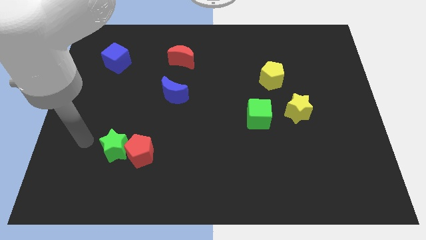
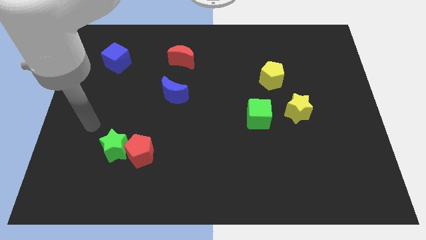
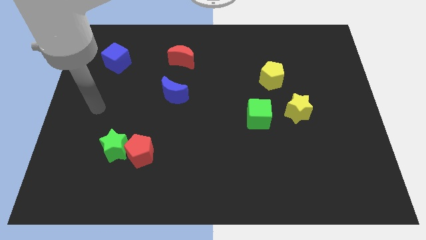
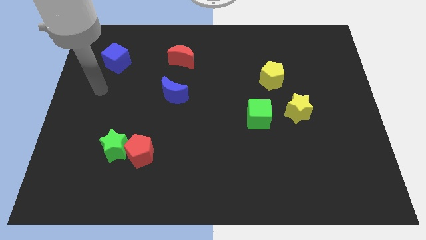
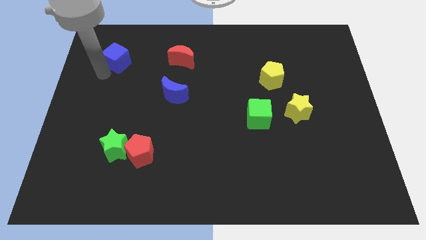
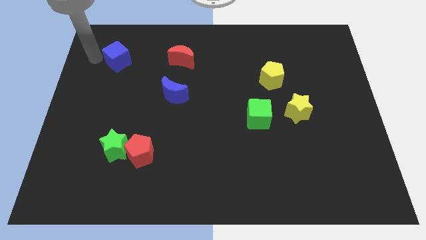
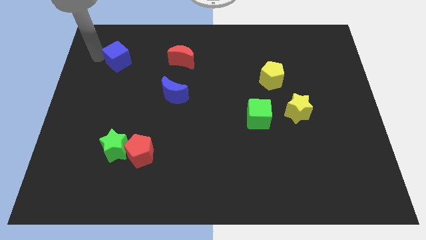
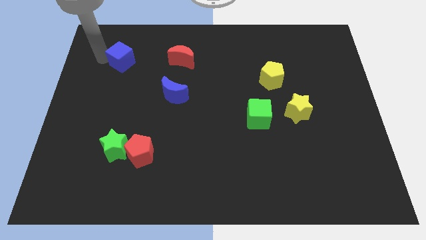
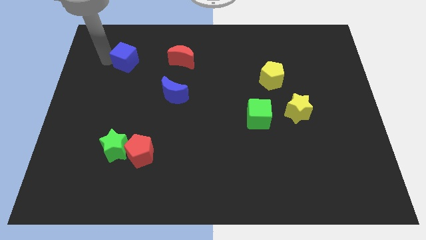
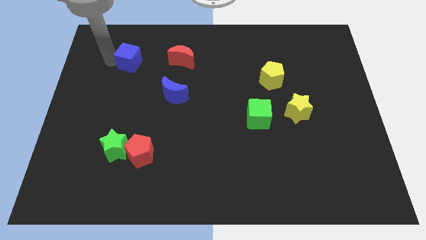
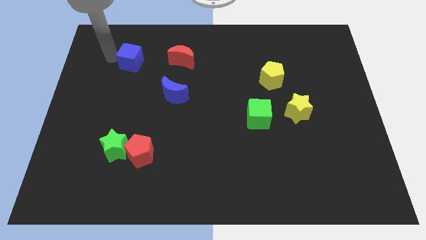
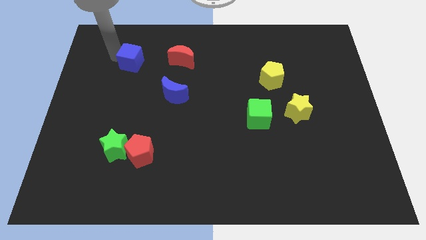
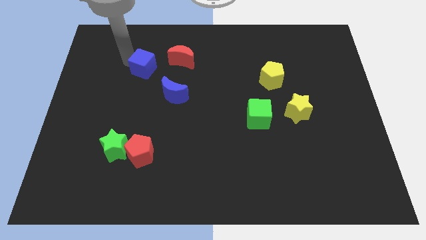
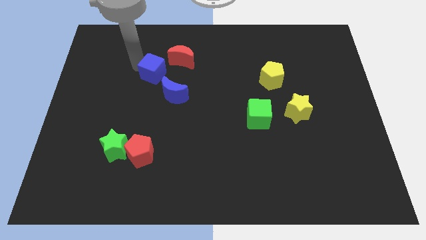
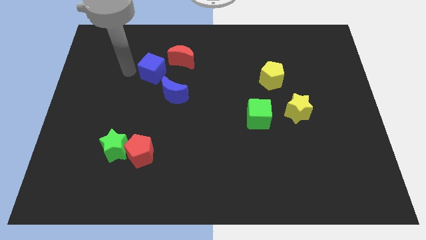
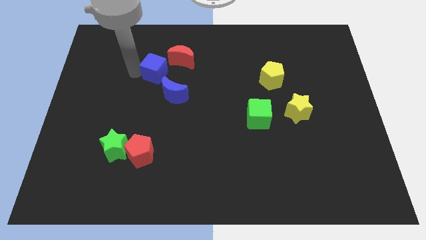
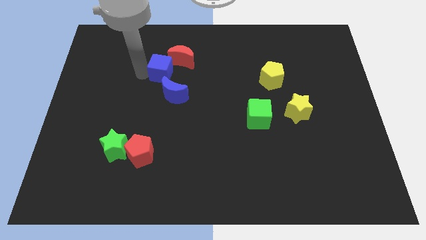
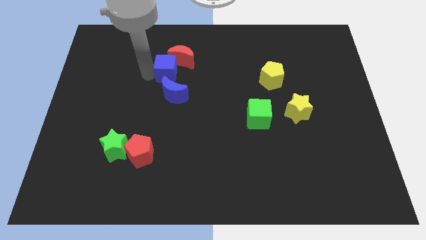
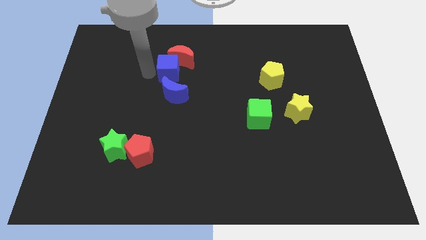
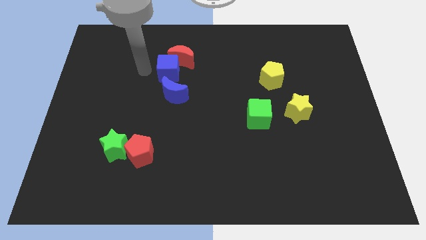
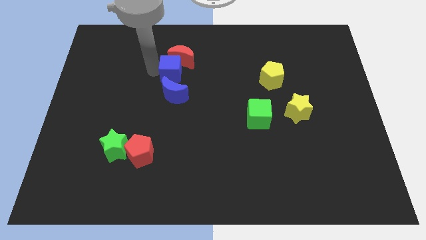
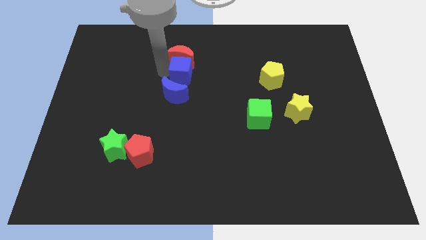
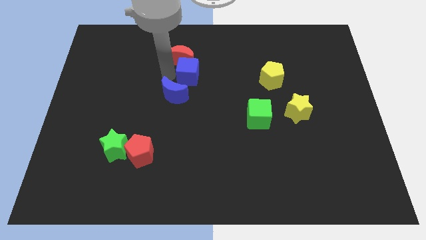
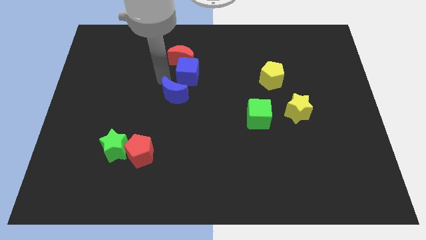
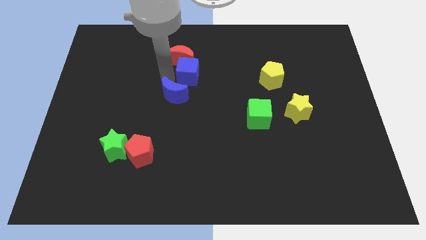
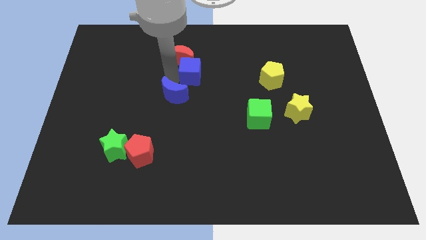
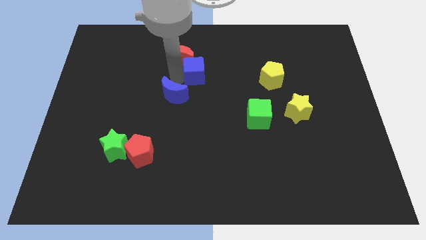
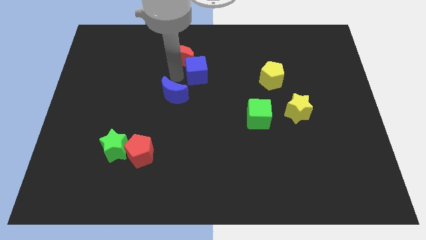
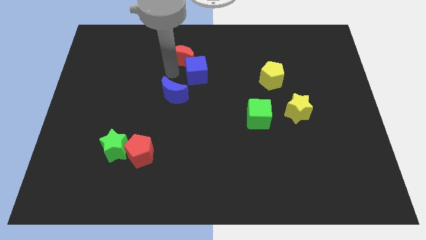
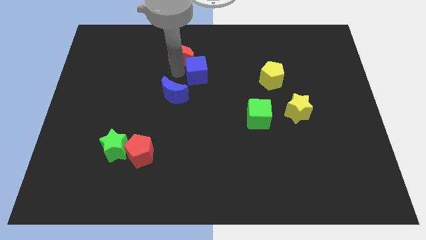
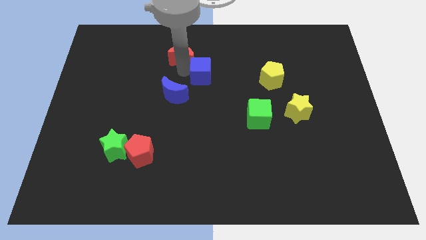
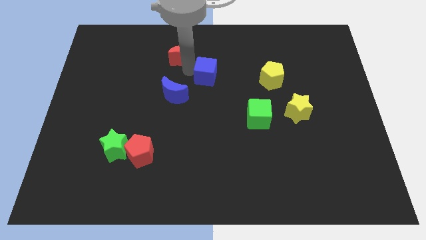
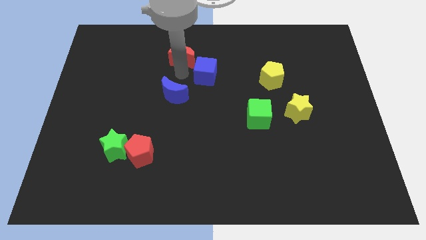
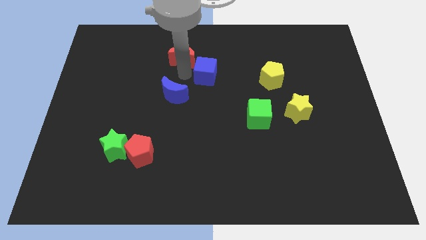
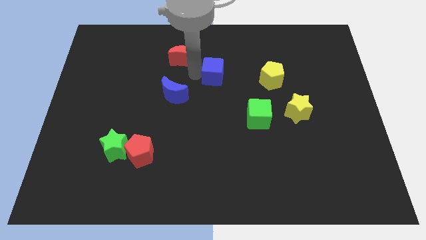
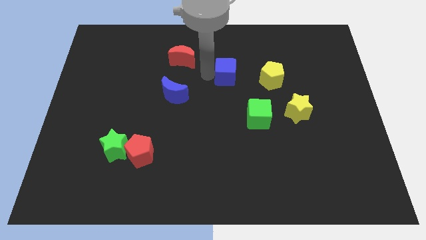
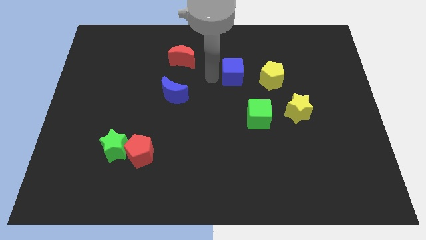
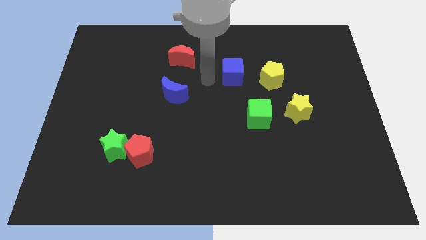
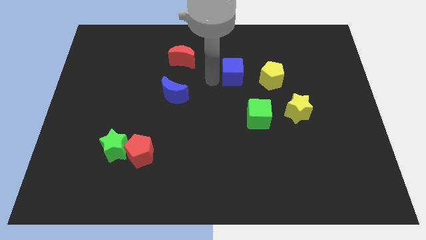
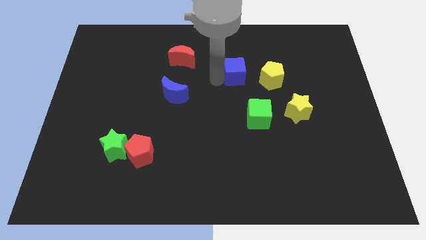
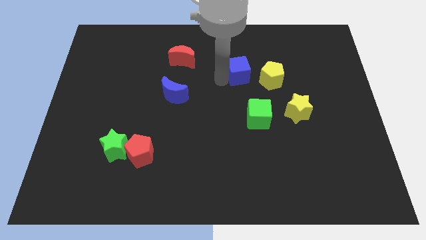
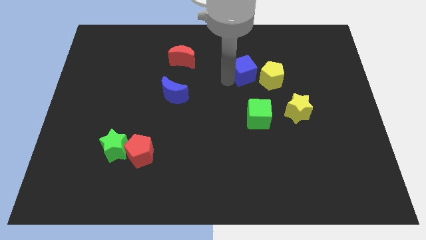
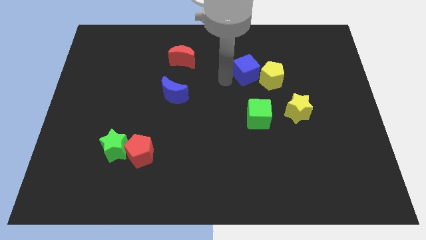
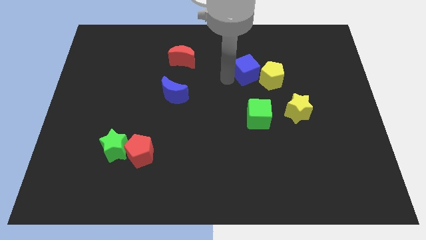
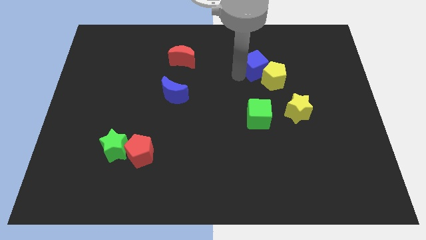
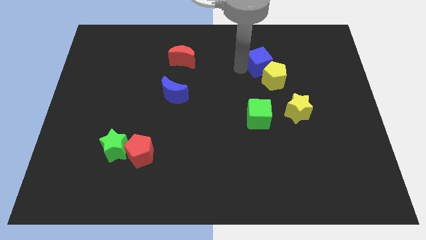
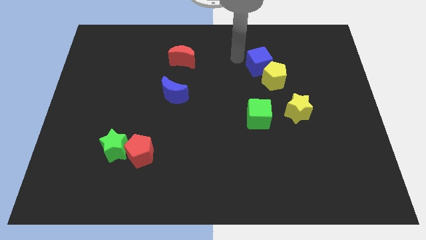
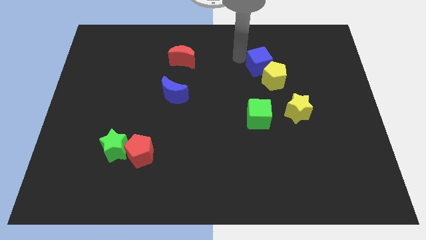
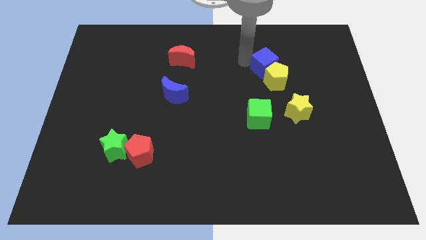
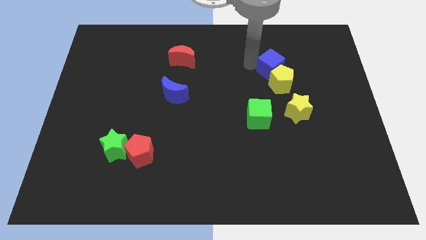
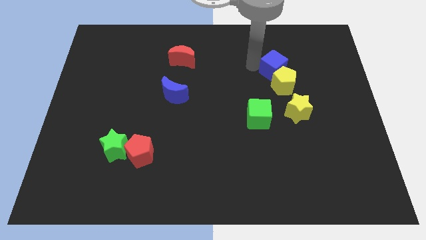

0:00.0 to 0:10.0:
put the blue cube to the top side of the yellow star

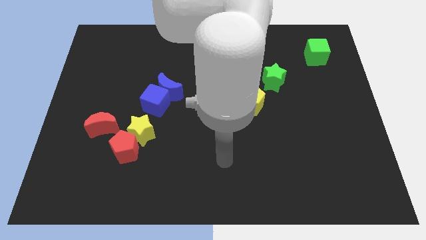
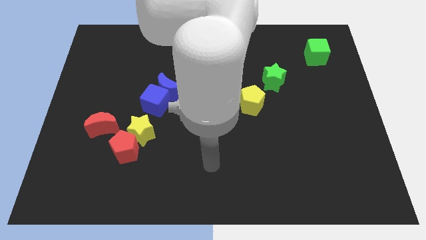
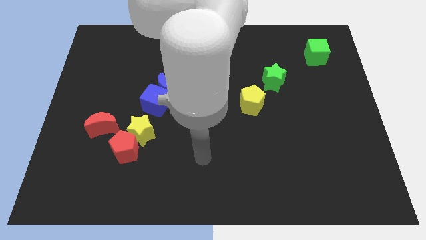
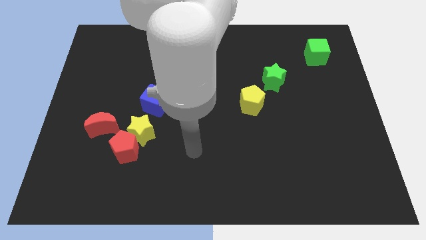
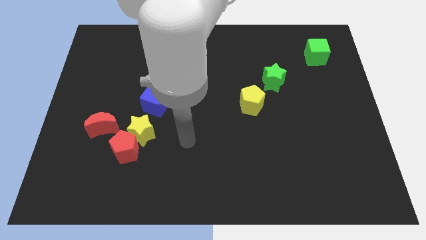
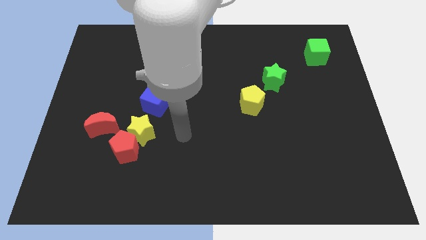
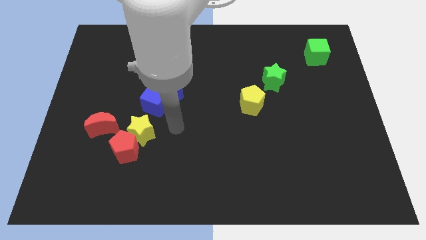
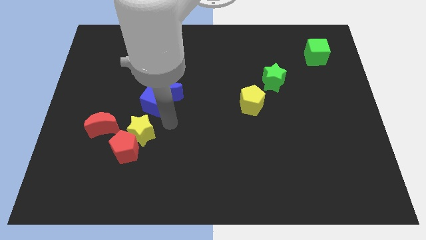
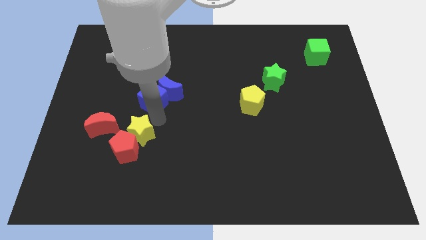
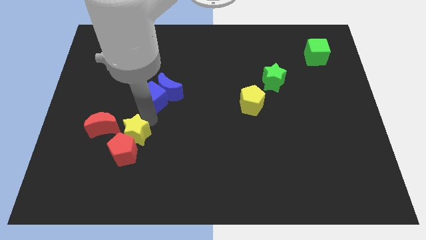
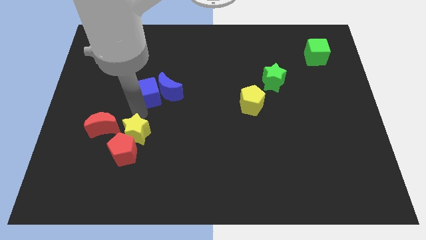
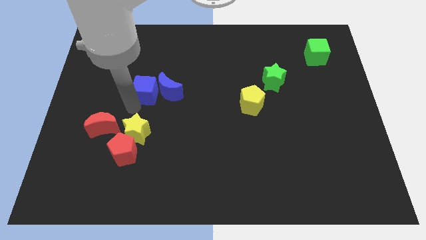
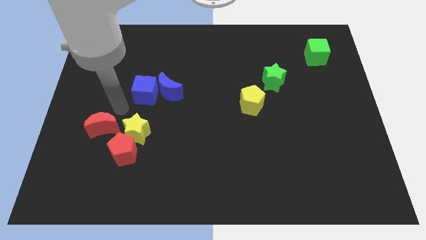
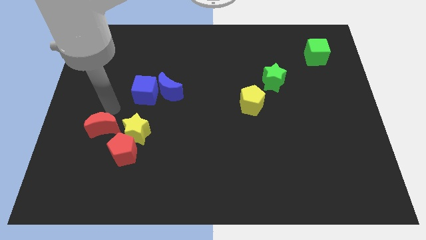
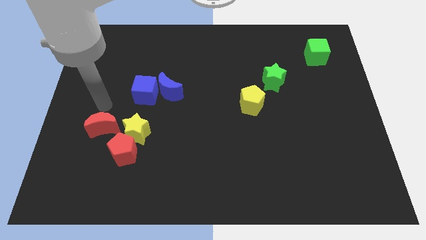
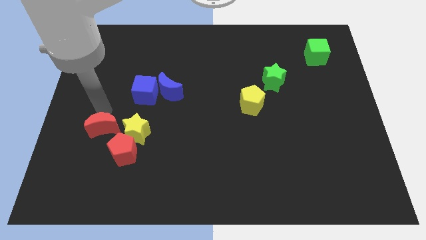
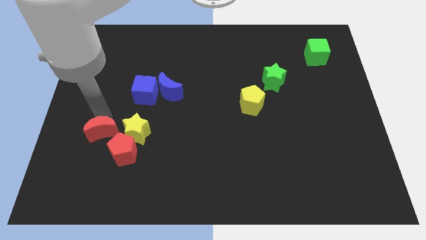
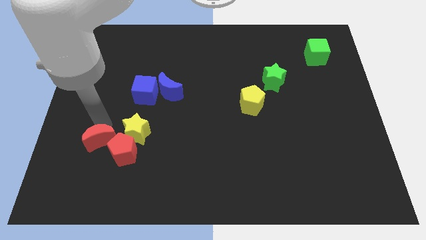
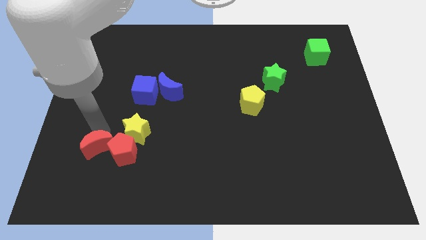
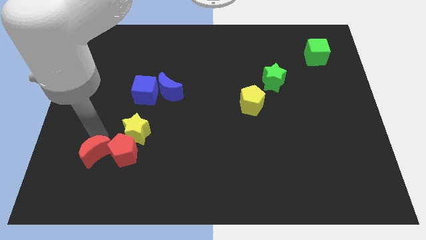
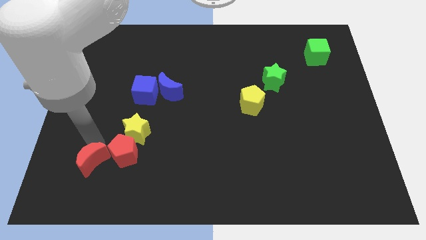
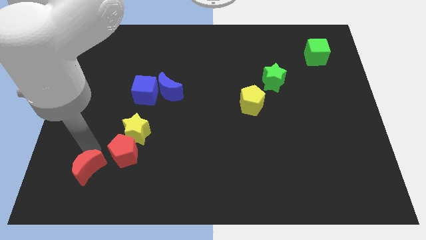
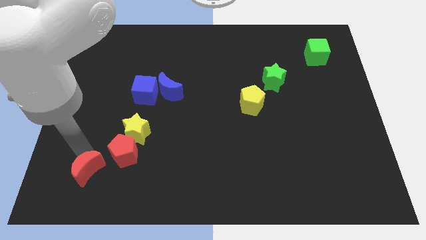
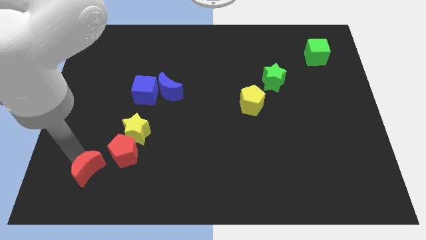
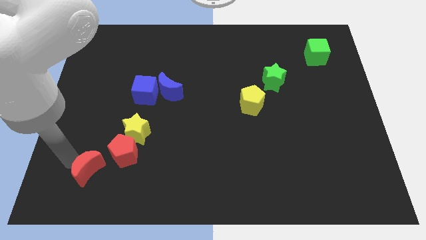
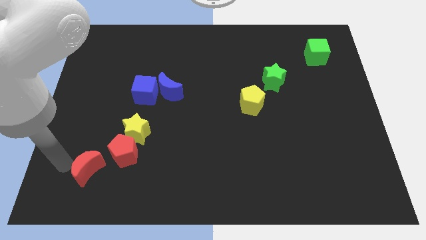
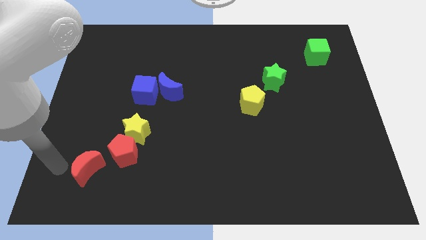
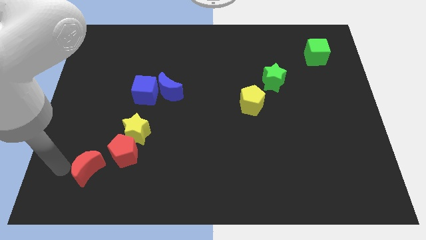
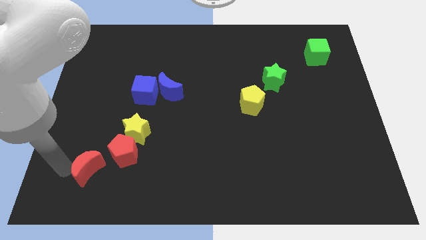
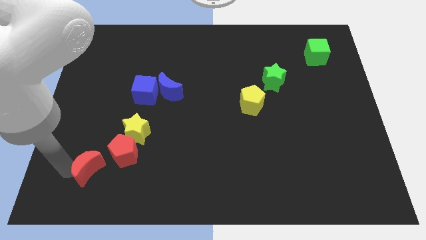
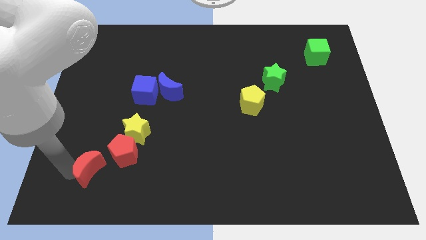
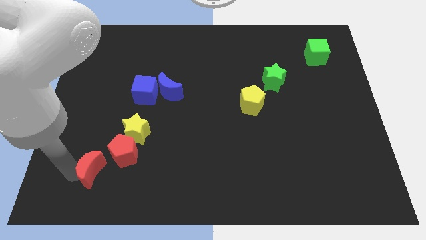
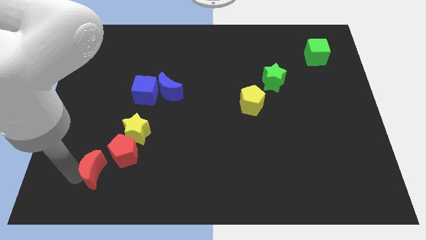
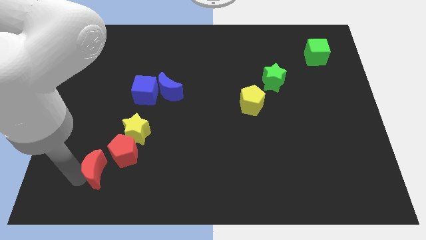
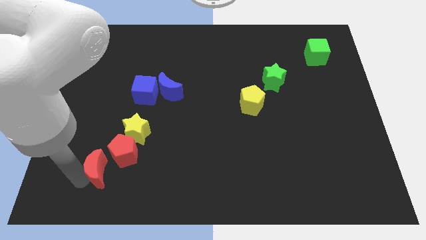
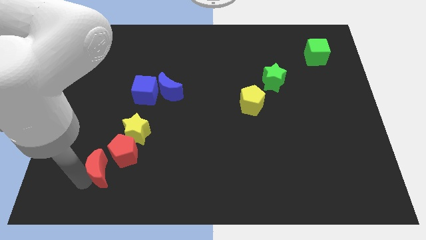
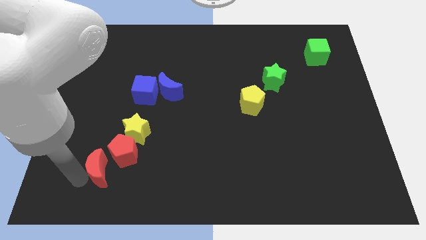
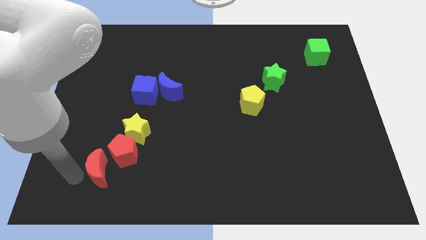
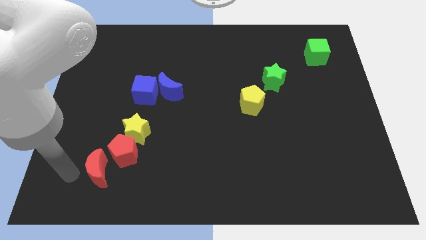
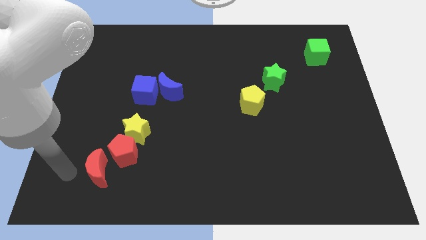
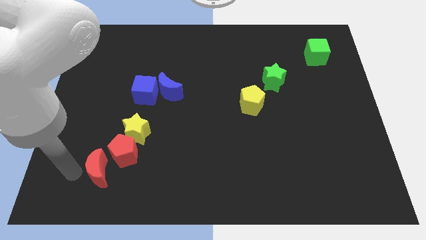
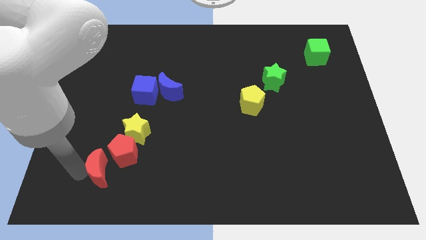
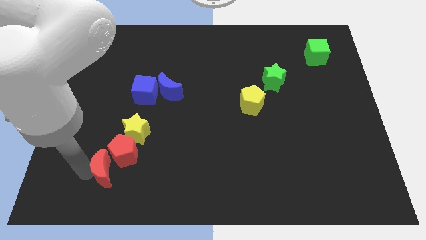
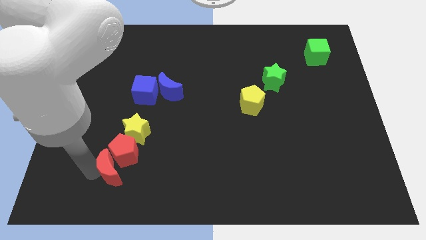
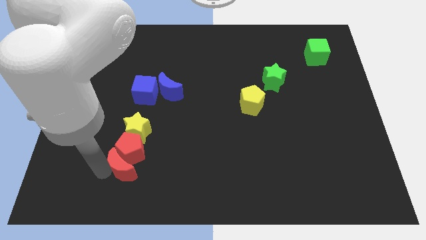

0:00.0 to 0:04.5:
put the red moon to the bottom right side of the red pentagon
